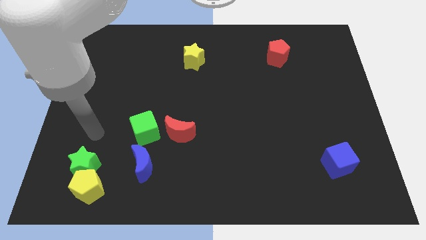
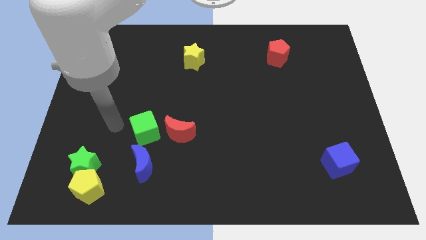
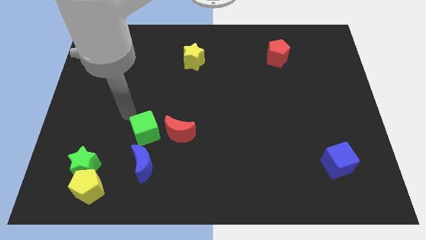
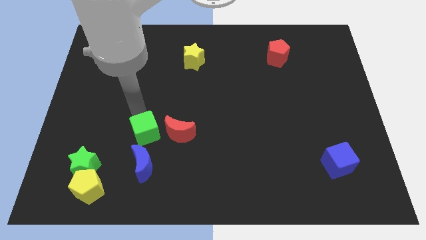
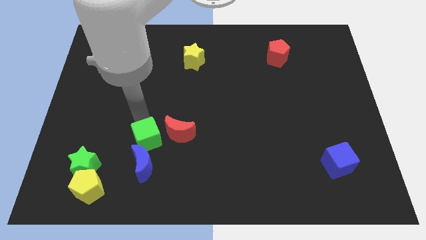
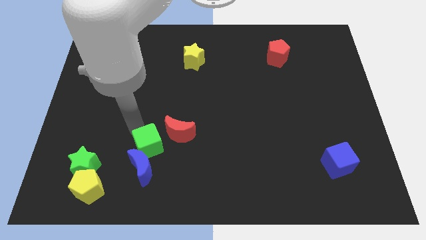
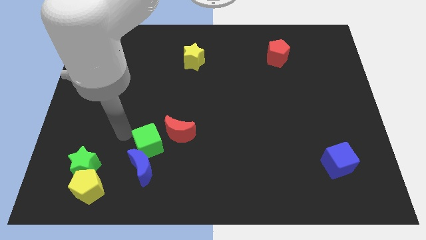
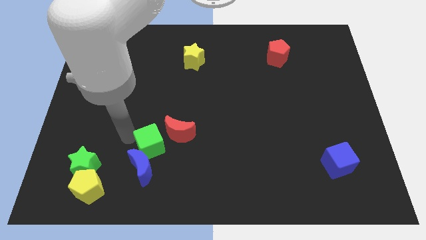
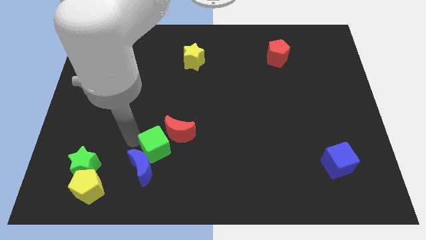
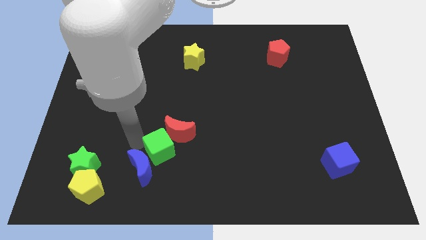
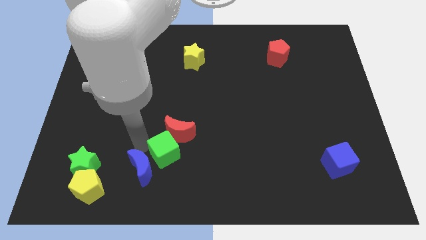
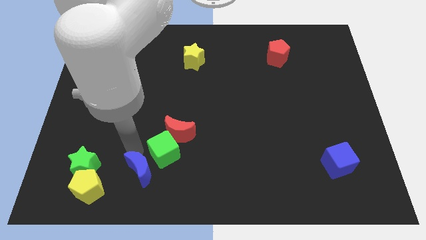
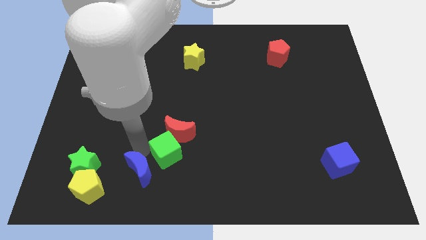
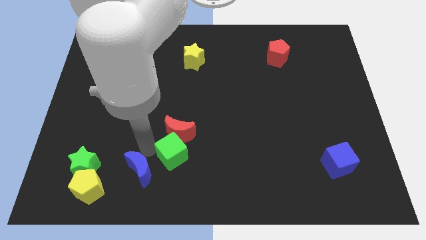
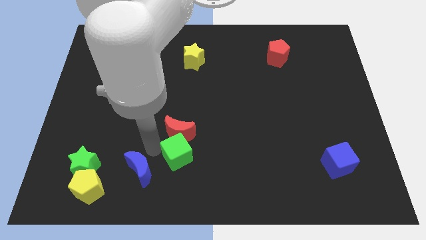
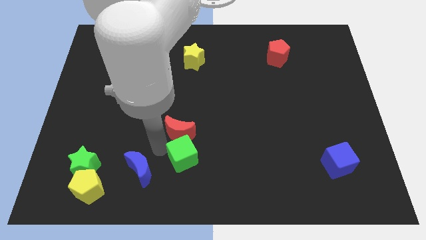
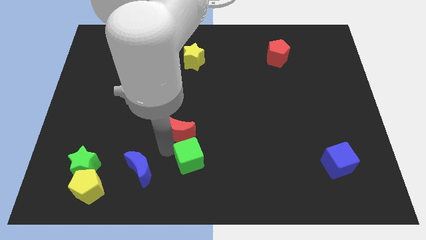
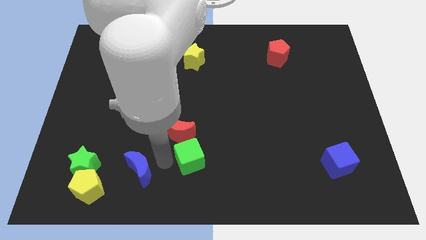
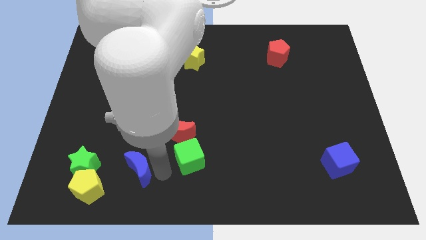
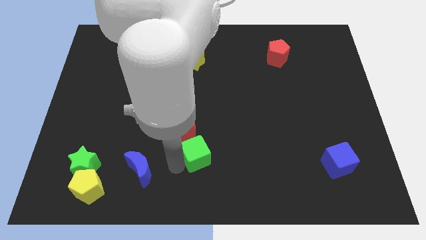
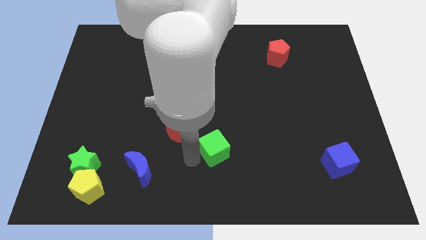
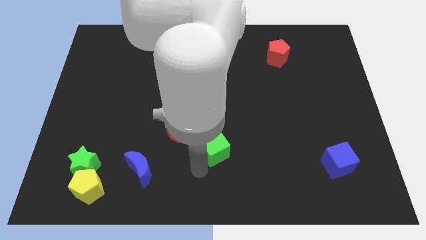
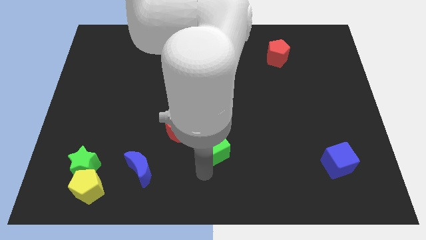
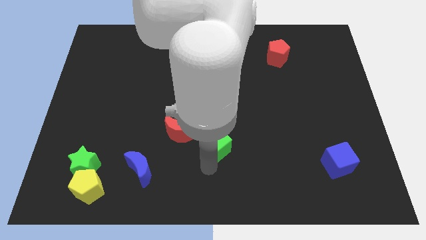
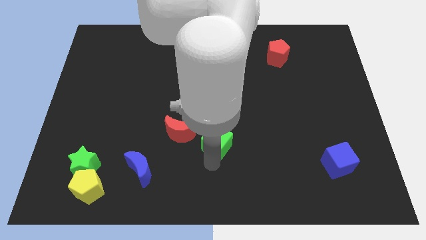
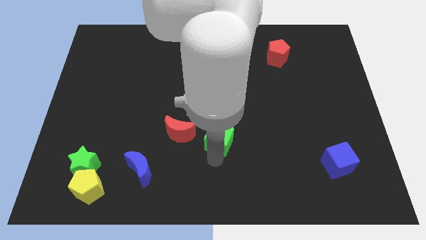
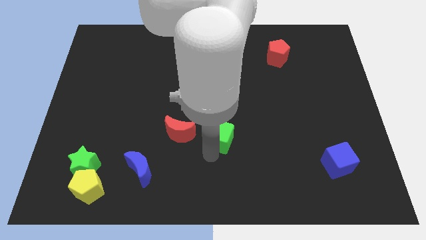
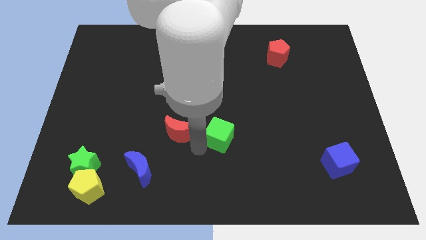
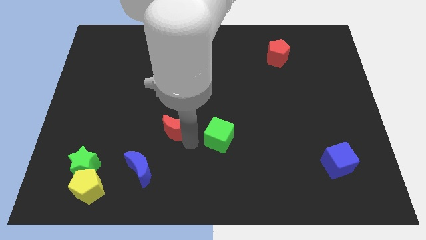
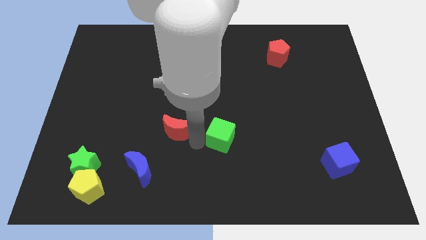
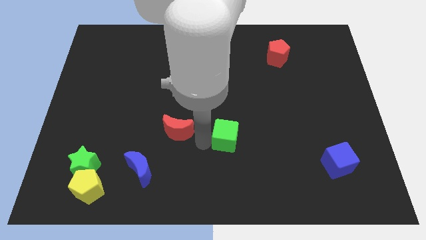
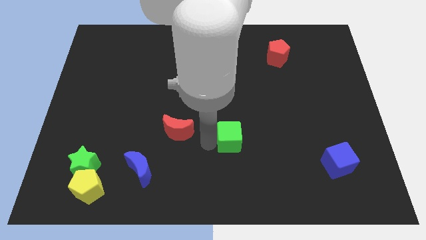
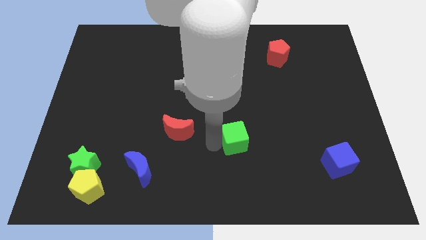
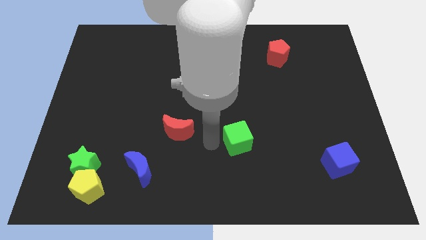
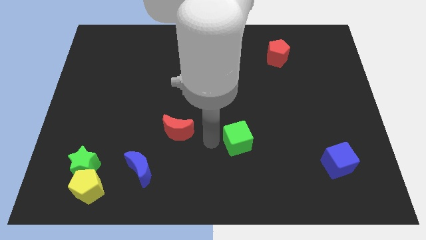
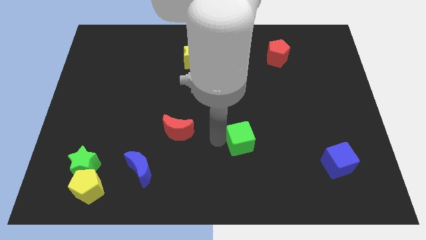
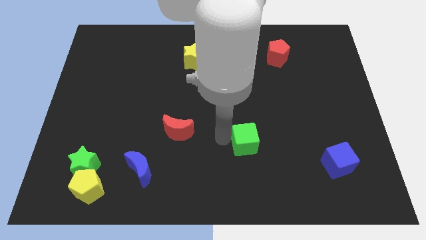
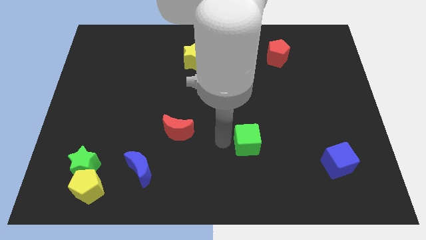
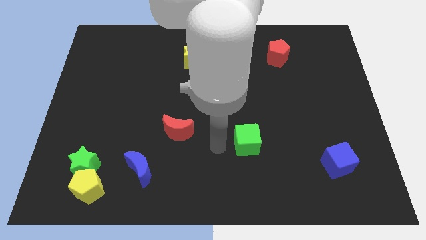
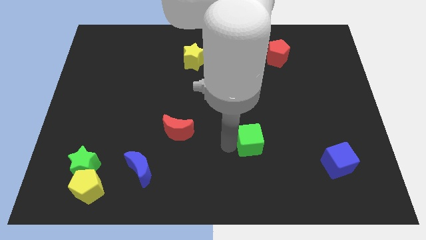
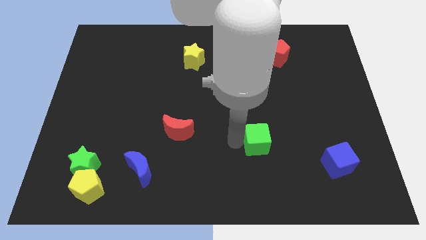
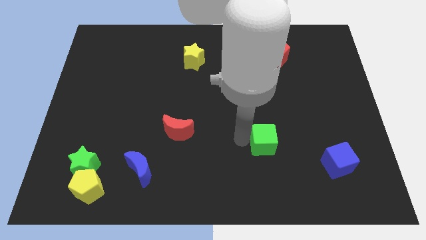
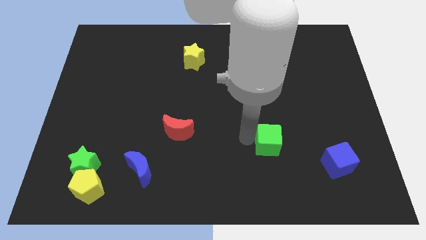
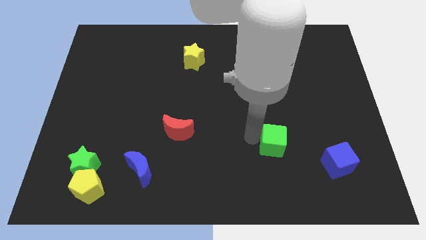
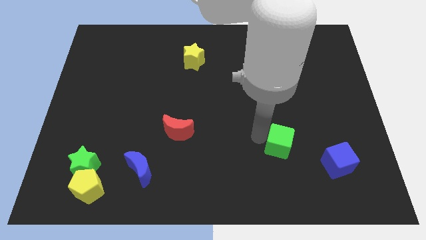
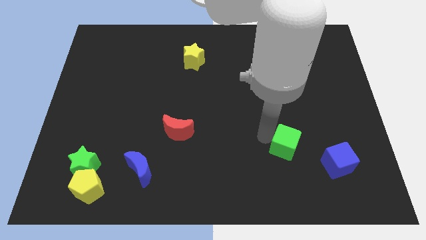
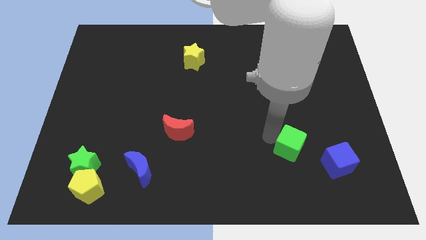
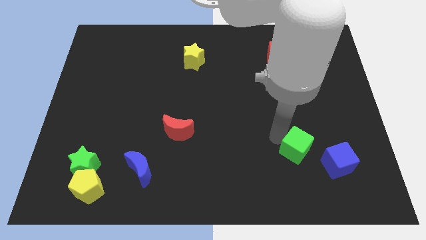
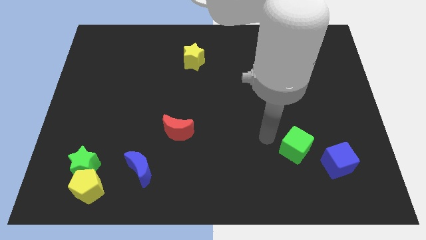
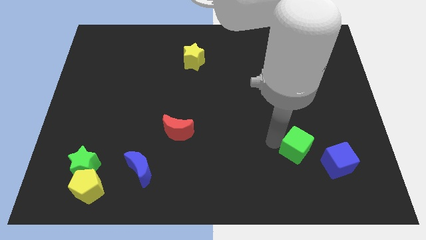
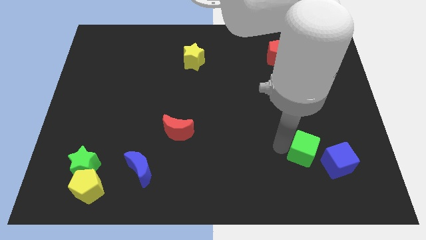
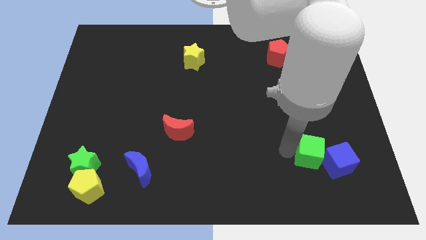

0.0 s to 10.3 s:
put the green cube towards the blue cube

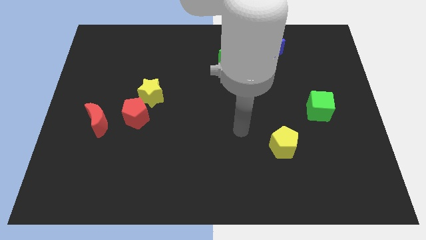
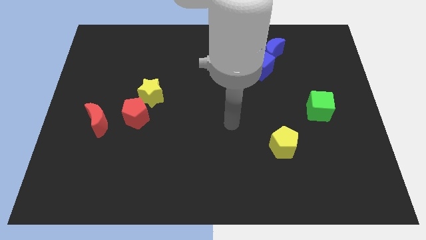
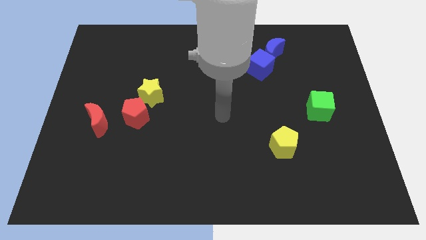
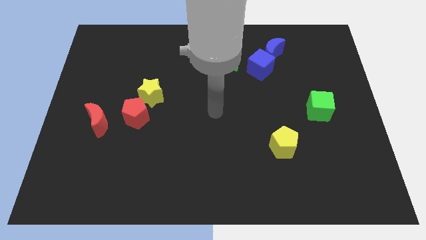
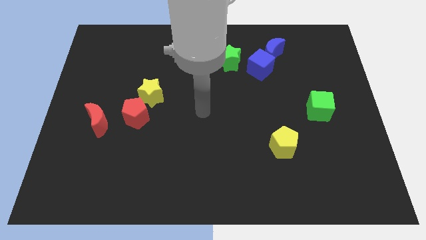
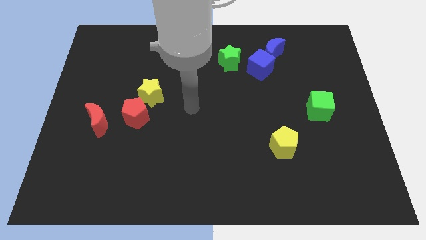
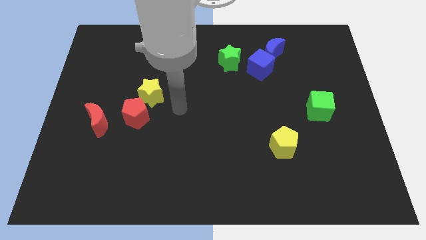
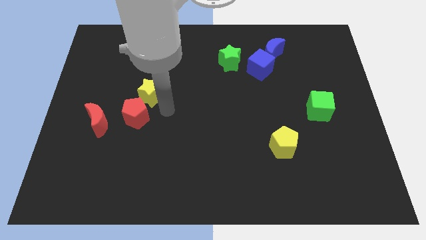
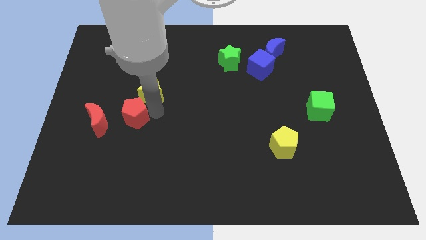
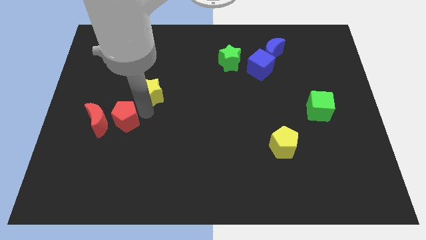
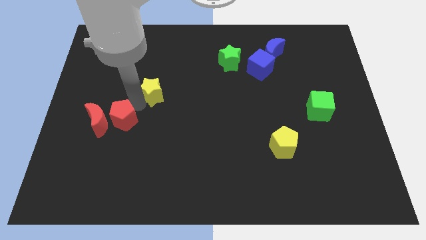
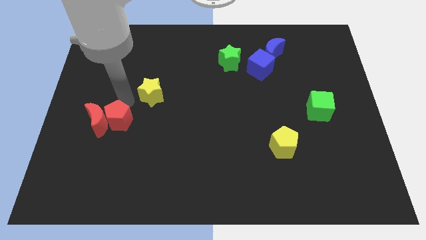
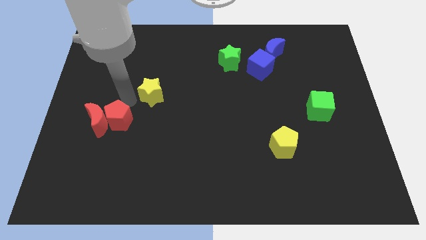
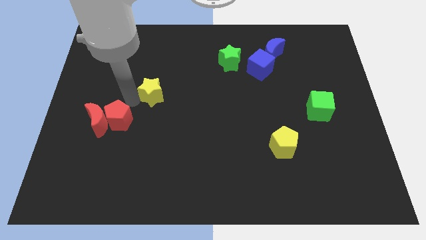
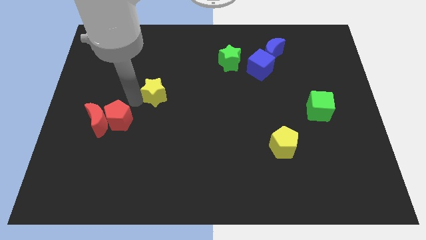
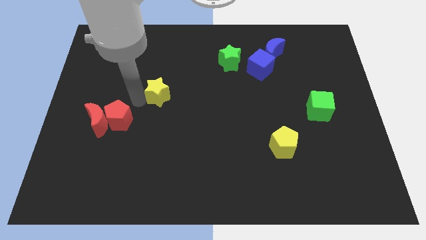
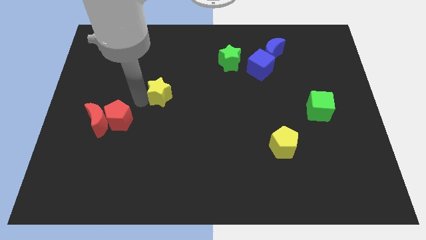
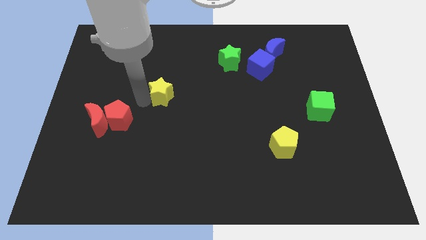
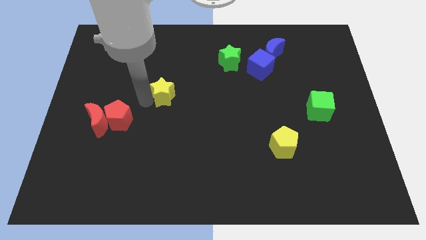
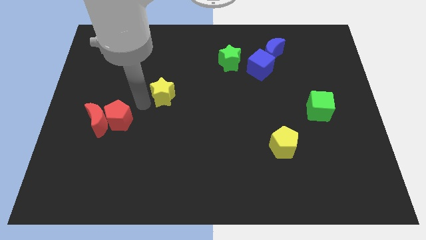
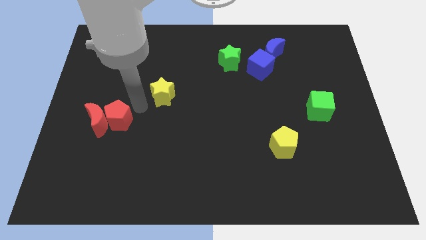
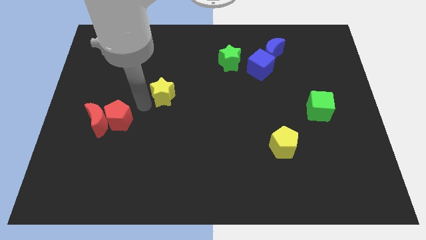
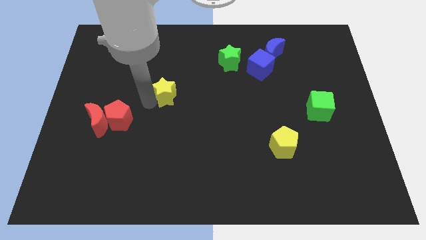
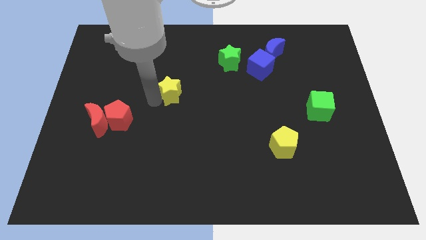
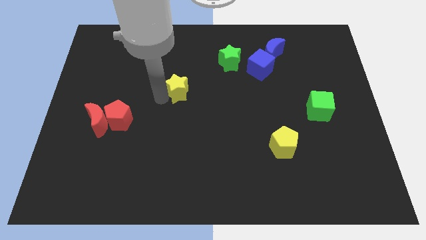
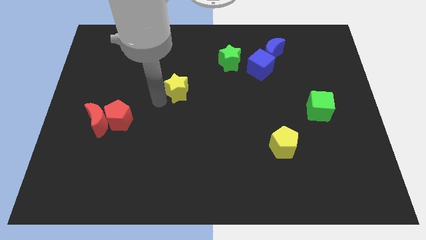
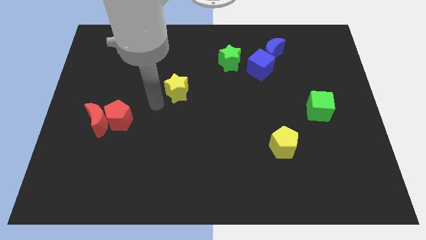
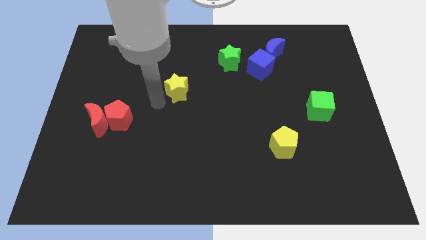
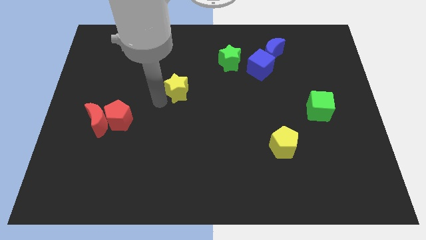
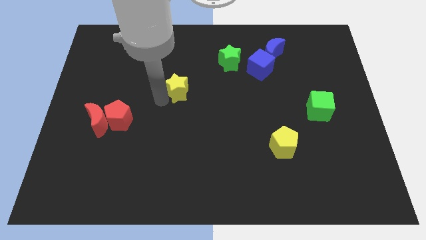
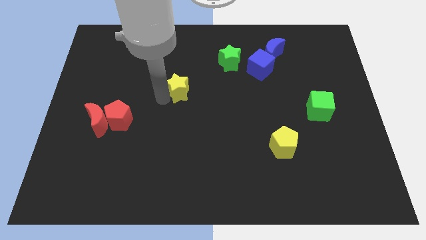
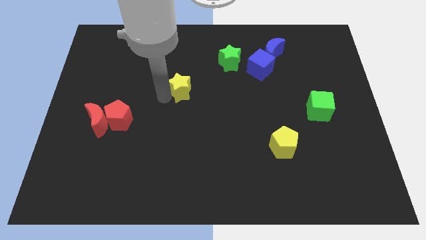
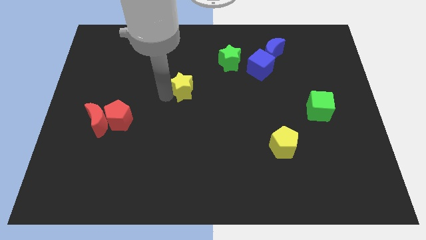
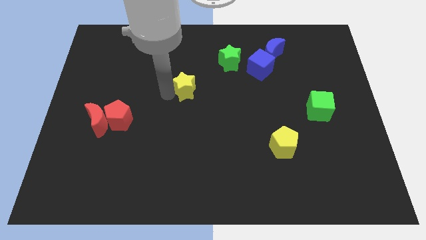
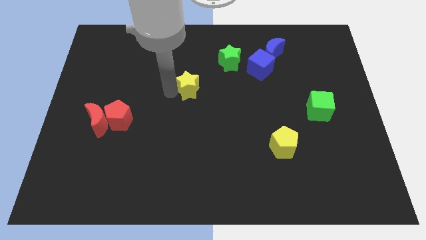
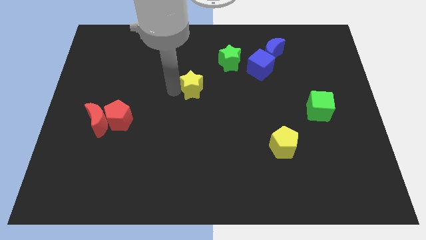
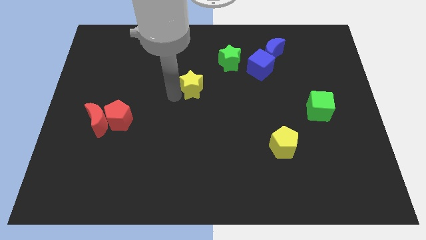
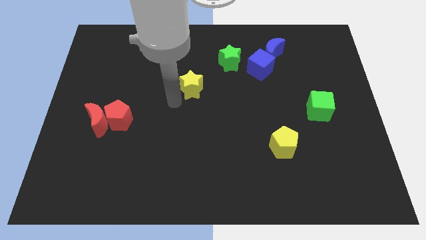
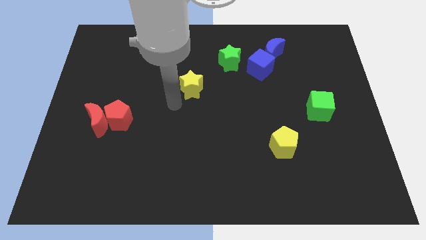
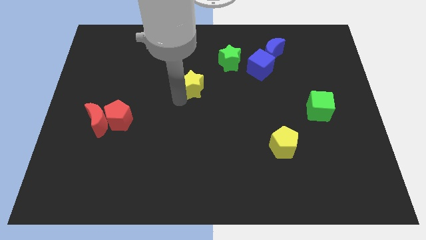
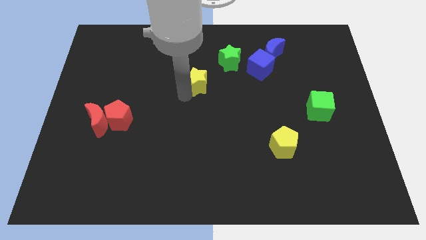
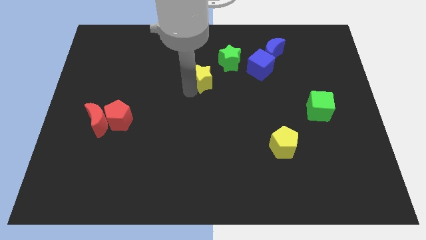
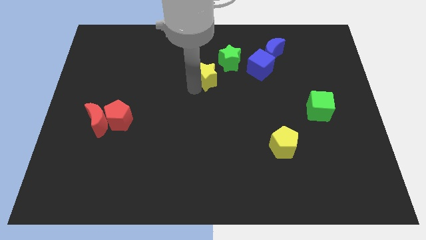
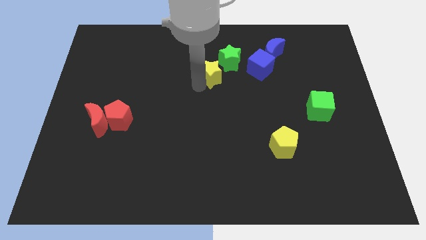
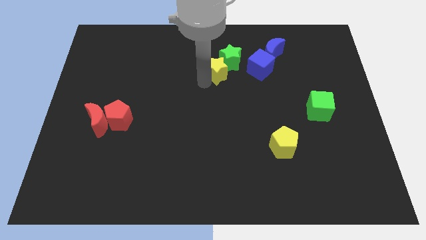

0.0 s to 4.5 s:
move the yellow star close to the green star
